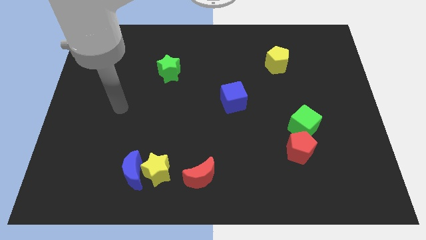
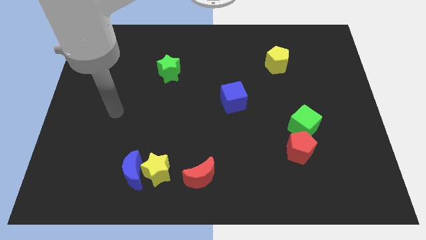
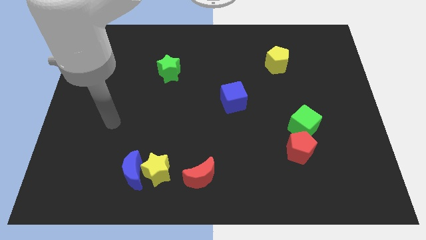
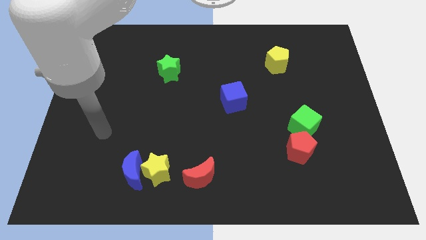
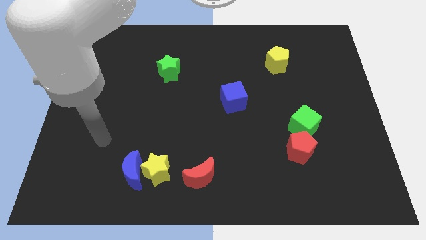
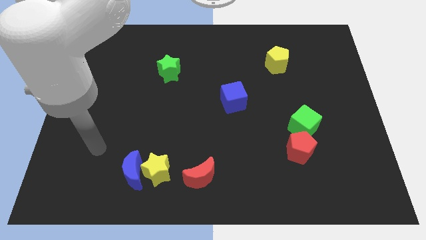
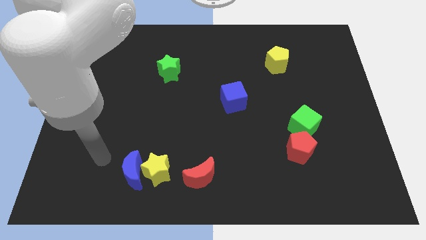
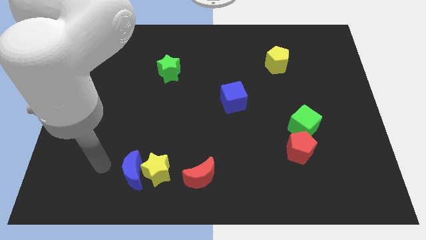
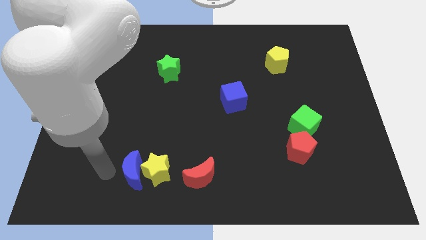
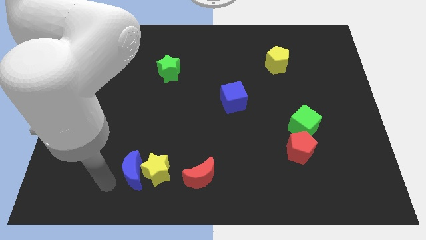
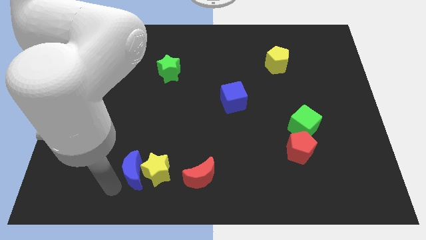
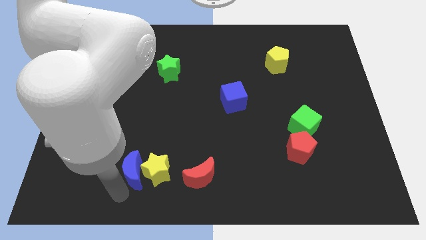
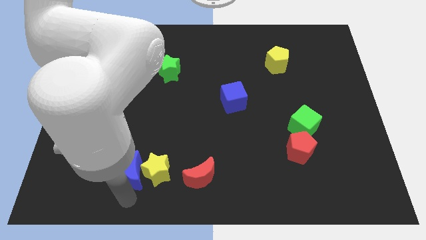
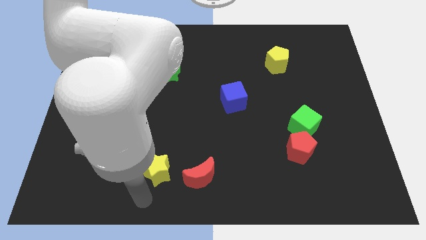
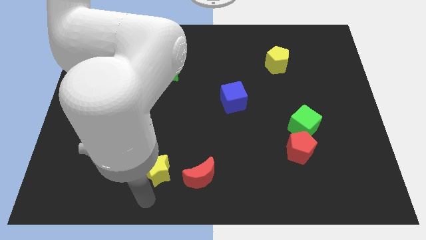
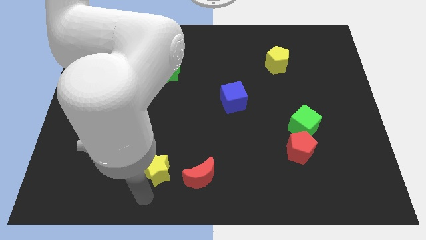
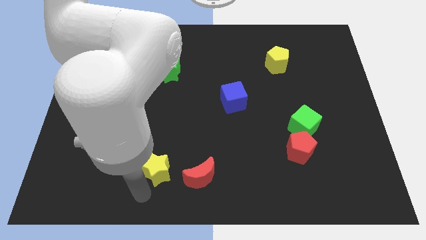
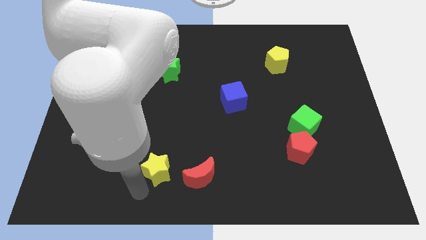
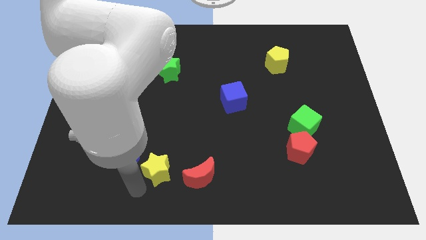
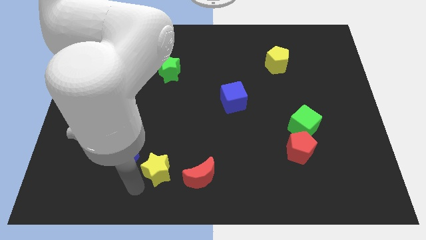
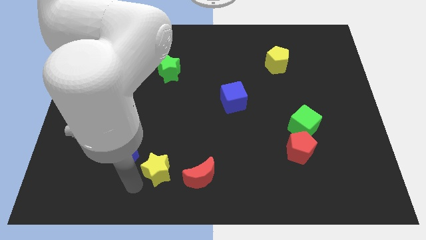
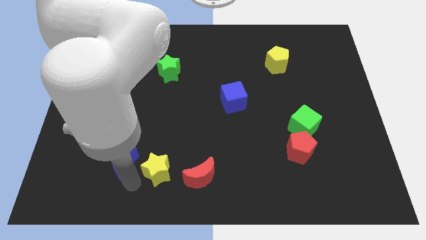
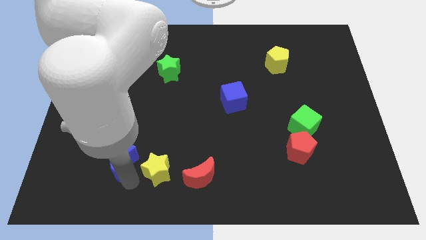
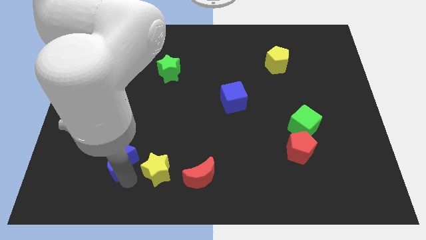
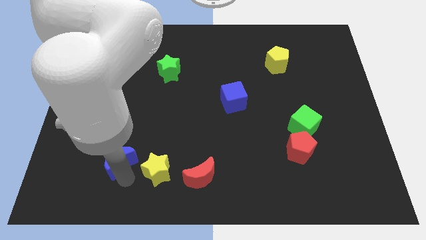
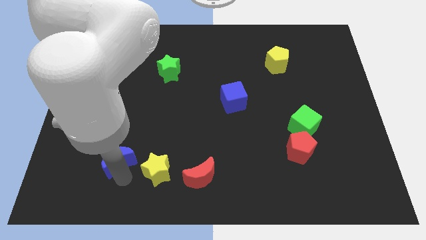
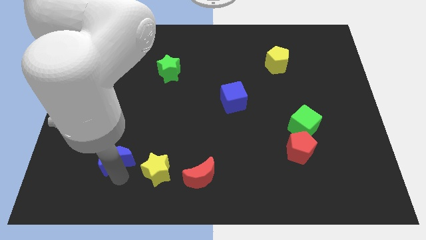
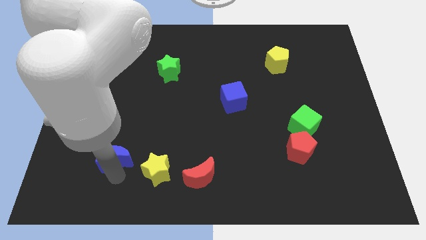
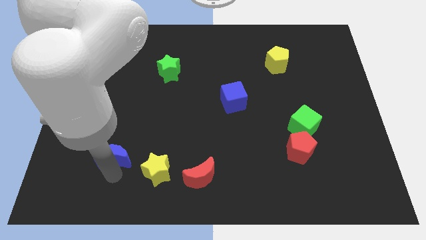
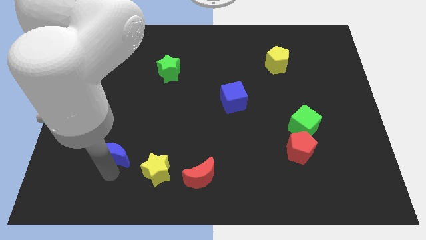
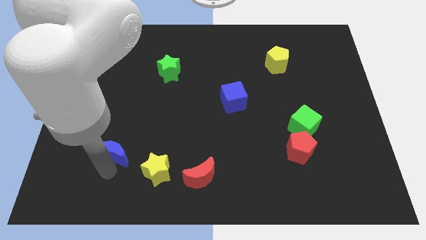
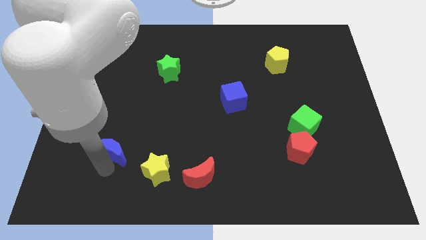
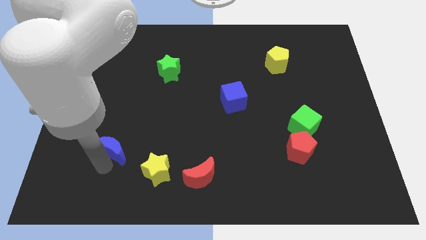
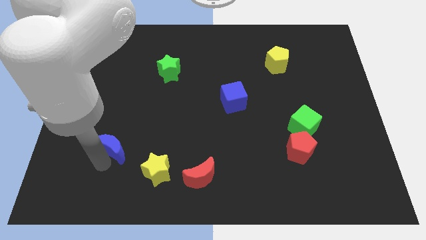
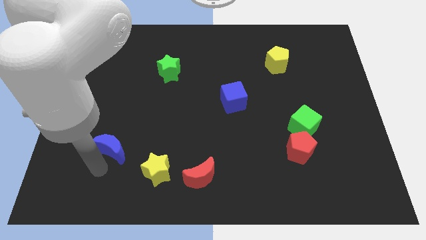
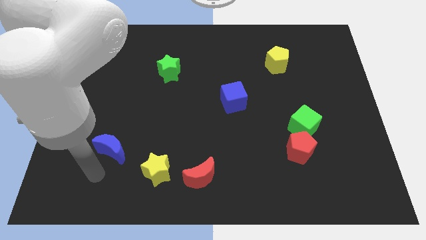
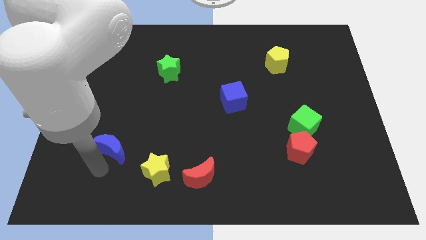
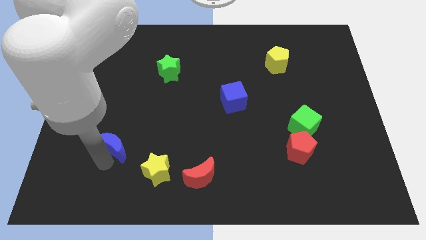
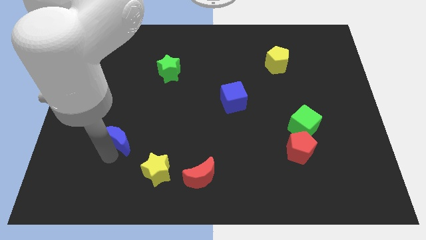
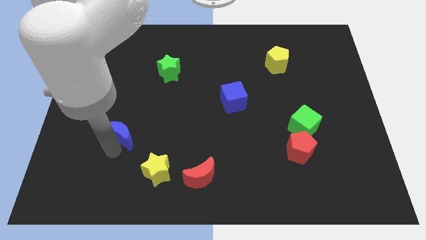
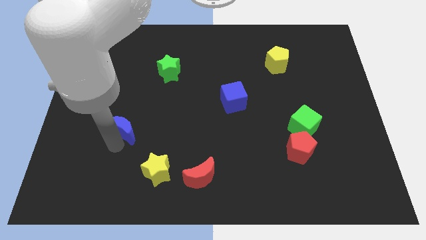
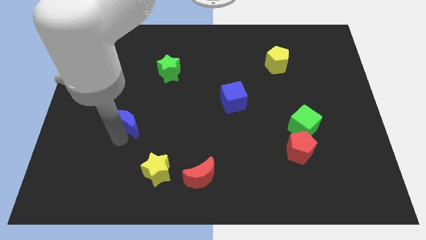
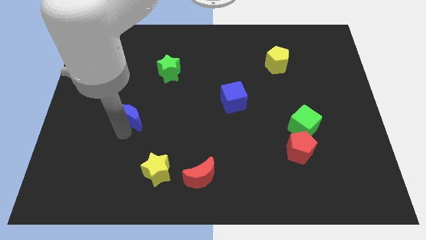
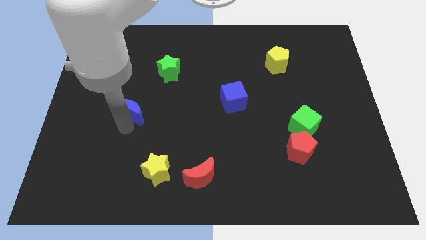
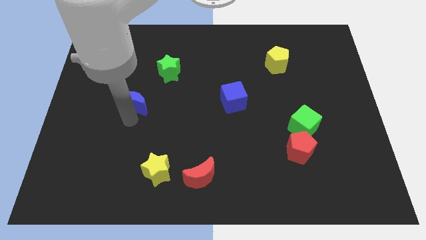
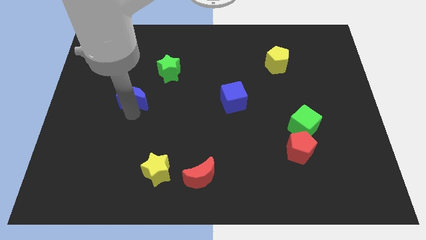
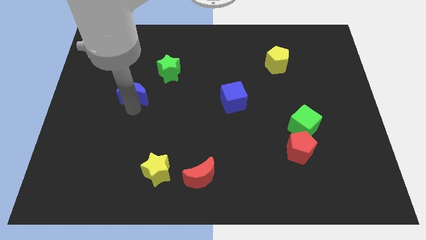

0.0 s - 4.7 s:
move the blue moon upwards

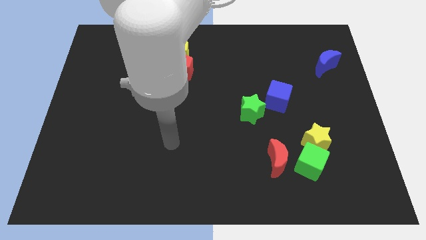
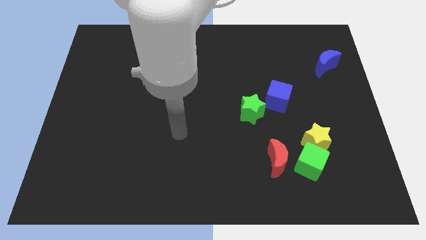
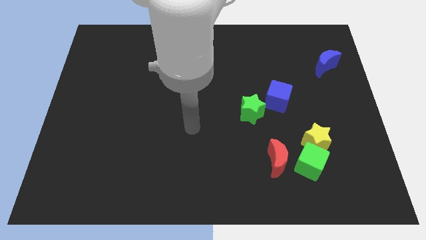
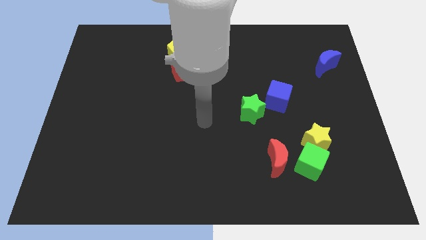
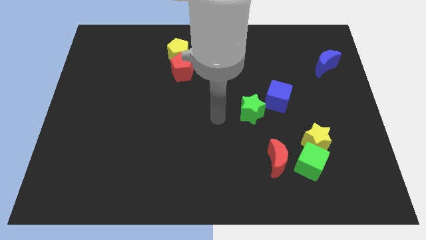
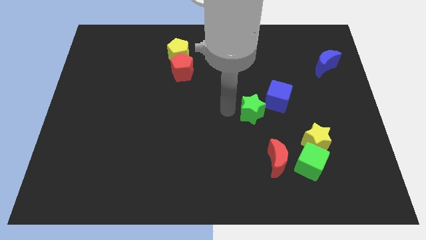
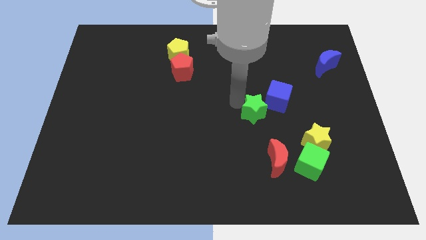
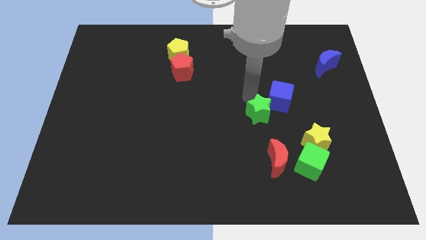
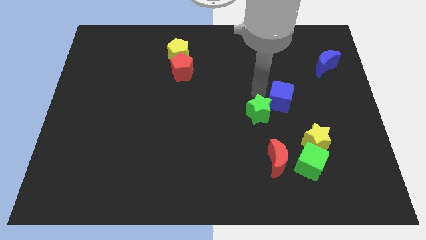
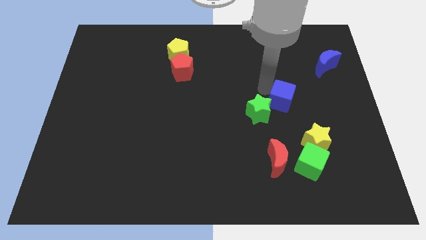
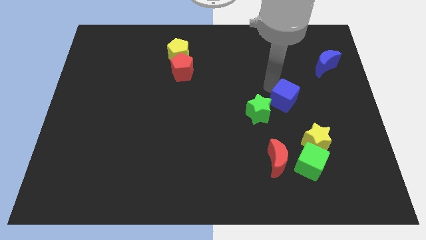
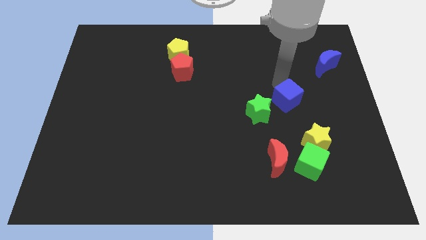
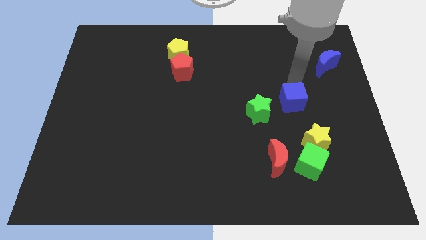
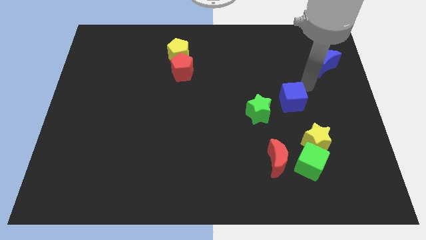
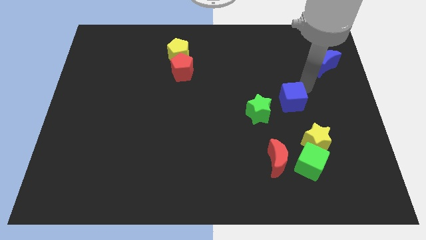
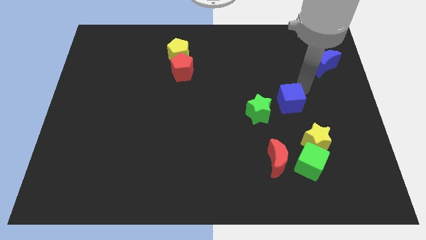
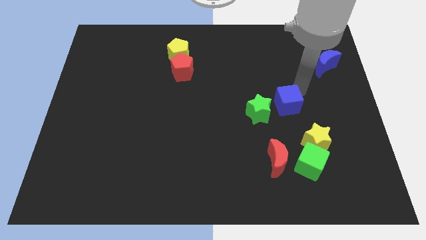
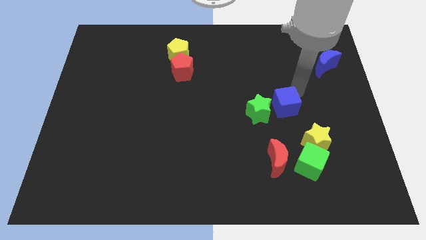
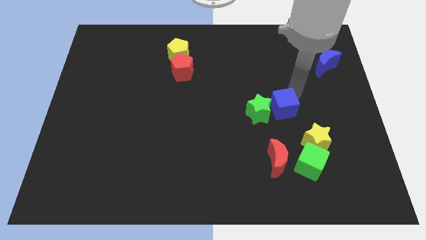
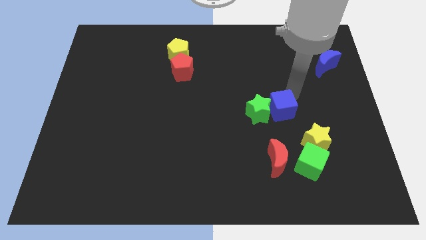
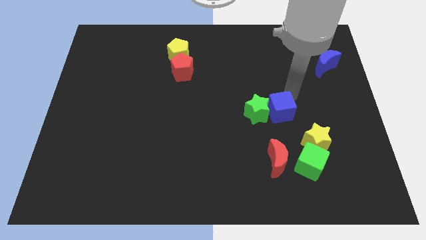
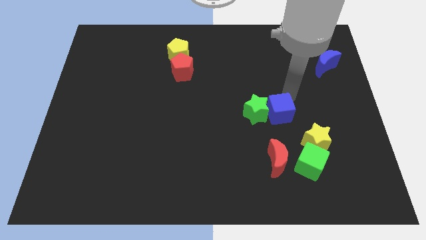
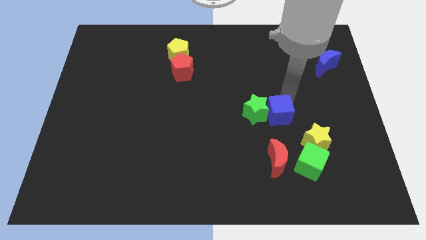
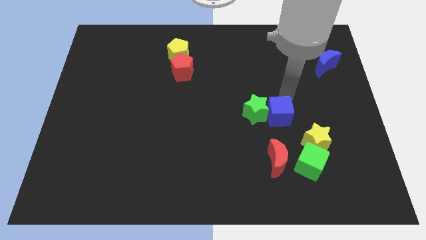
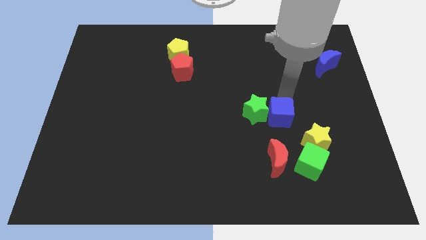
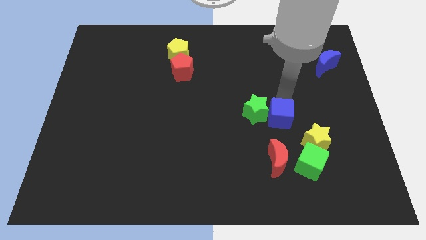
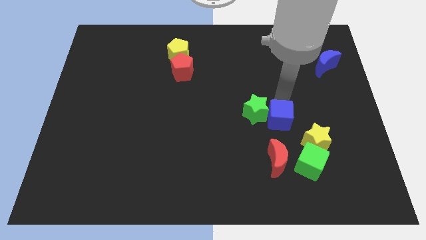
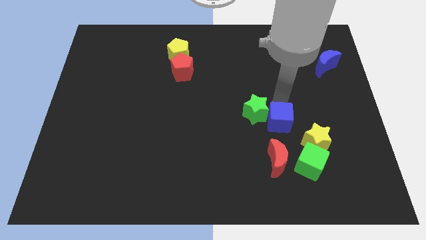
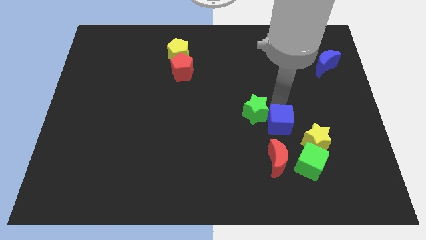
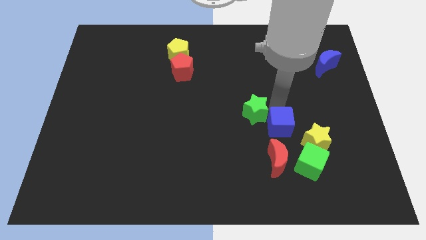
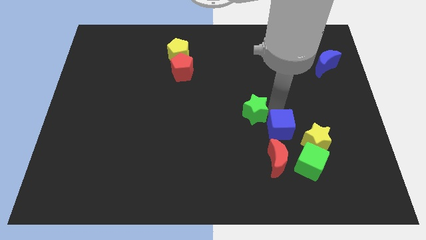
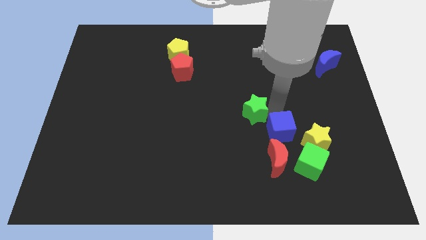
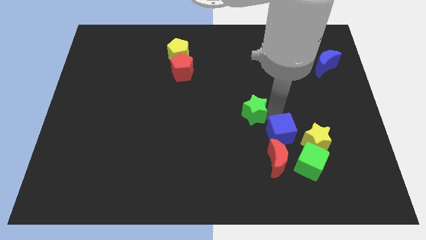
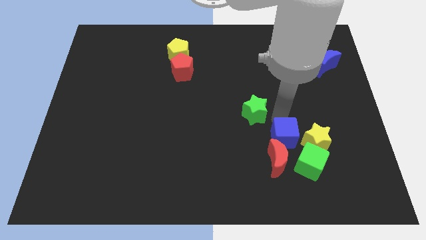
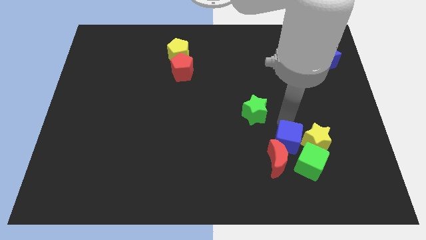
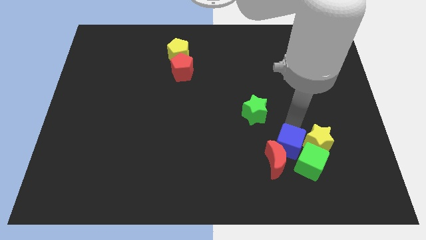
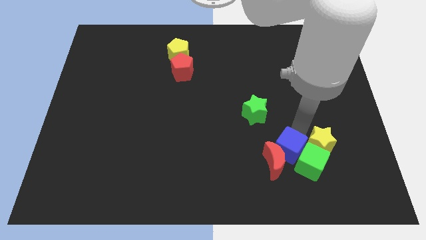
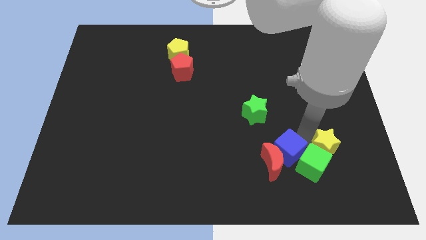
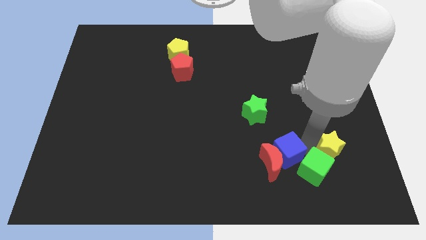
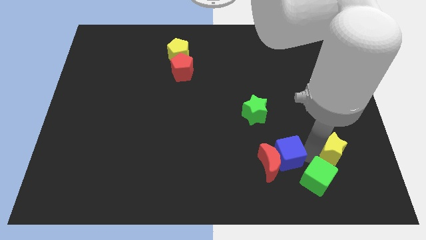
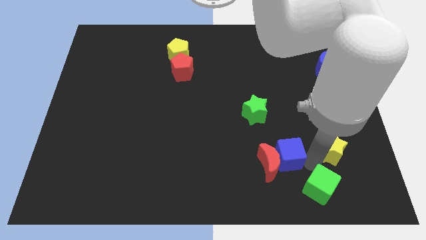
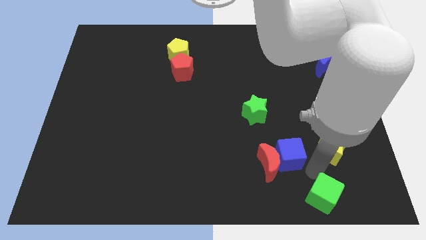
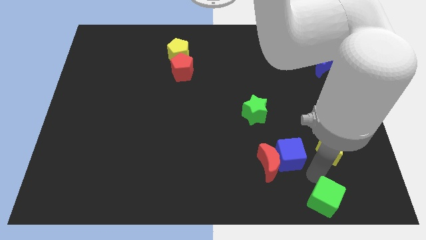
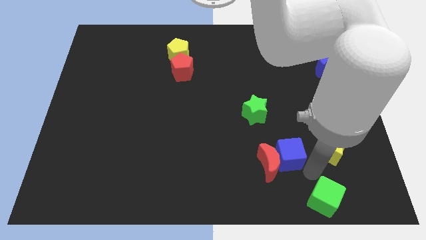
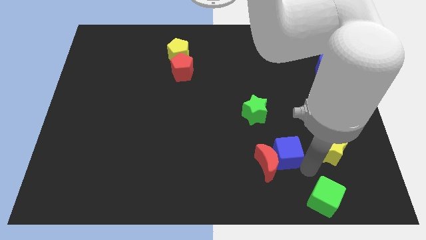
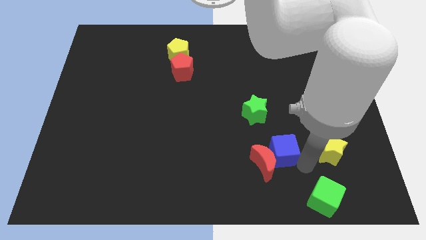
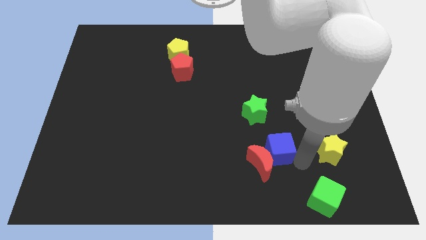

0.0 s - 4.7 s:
push the blue cube down and to the left diagonally a bit
